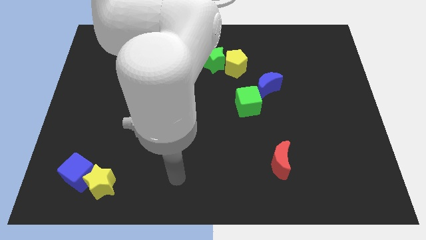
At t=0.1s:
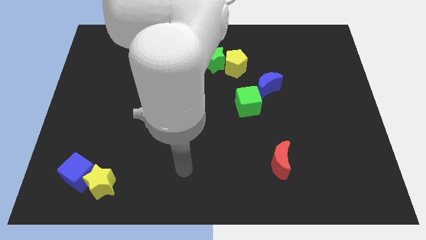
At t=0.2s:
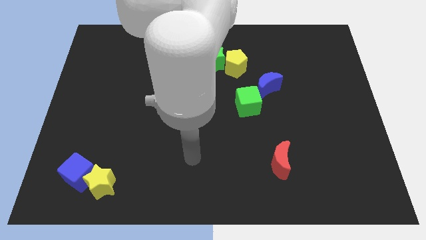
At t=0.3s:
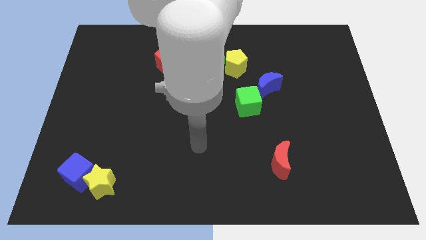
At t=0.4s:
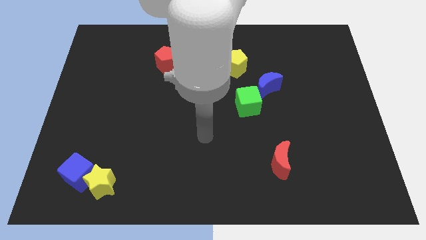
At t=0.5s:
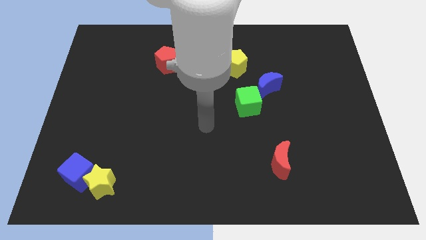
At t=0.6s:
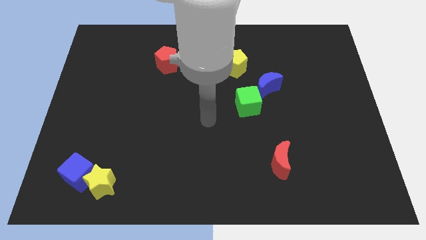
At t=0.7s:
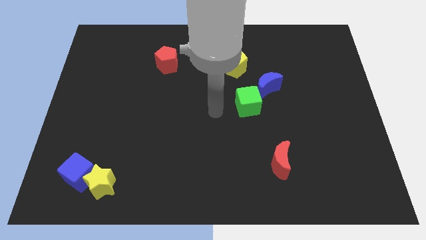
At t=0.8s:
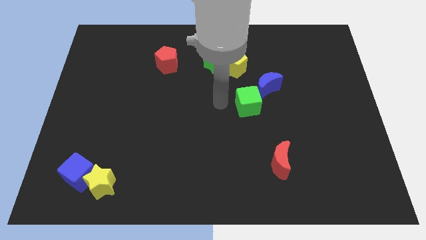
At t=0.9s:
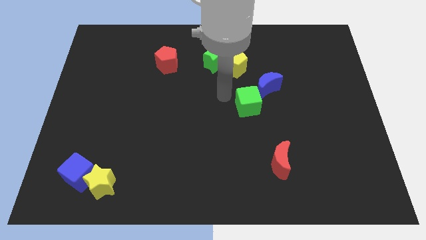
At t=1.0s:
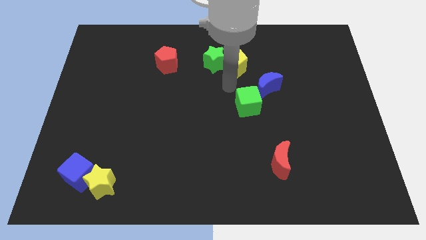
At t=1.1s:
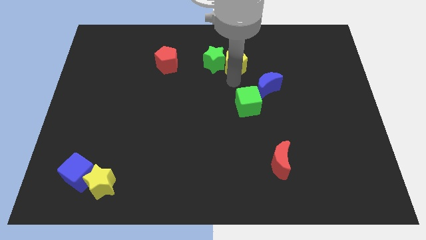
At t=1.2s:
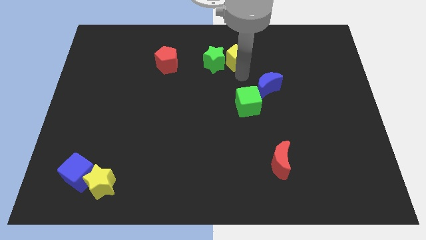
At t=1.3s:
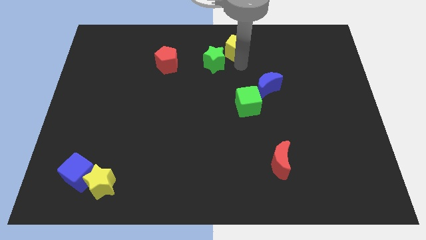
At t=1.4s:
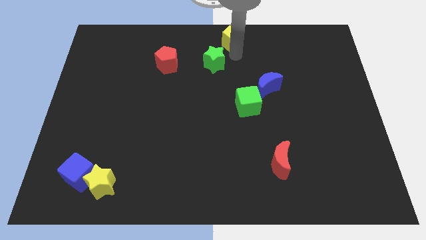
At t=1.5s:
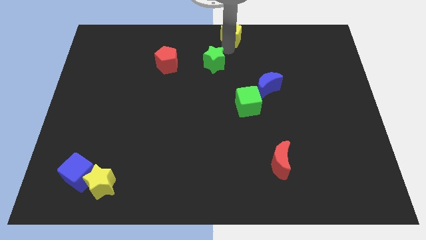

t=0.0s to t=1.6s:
separate the green star from the yellow pentagon

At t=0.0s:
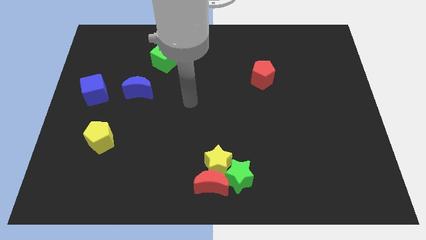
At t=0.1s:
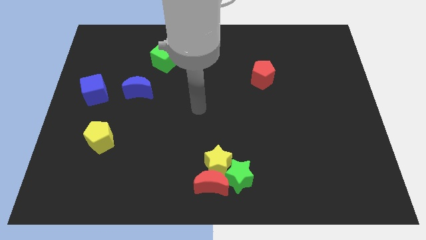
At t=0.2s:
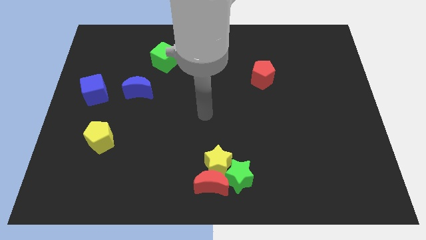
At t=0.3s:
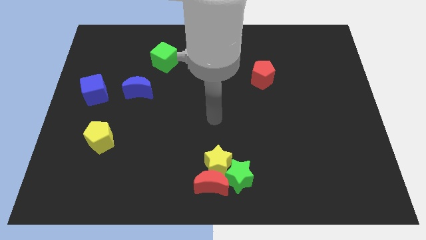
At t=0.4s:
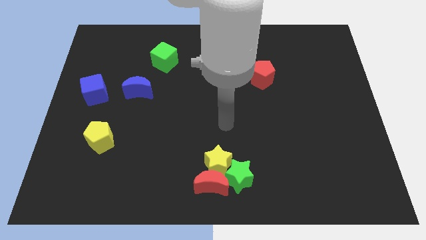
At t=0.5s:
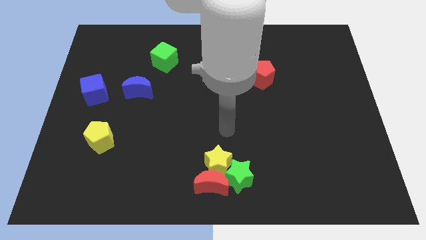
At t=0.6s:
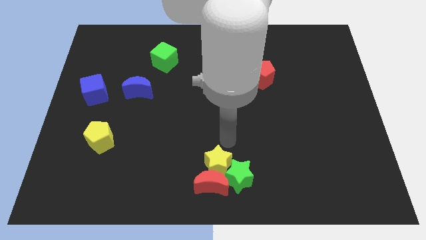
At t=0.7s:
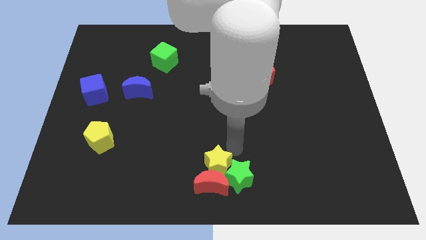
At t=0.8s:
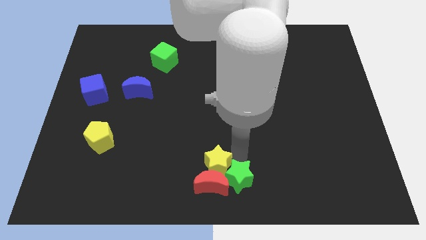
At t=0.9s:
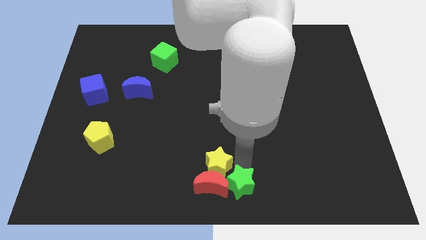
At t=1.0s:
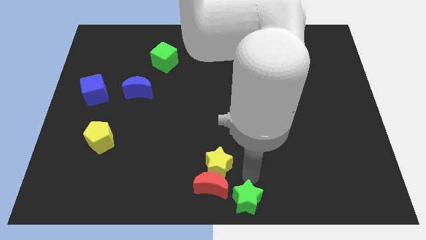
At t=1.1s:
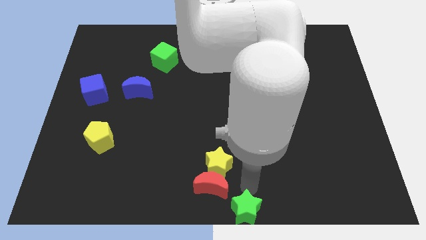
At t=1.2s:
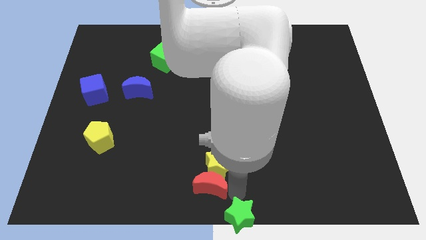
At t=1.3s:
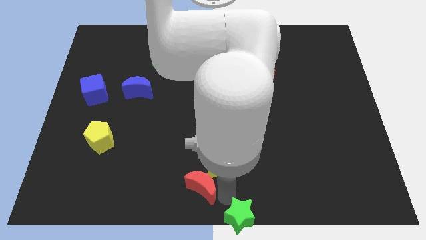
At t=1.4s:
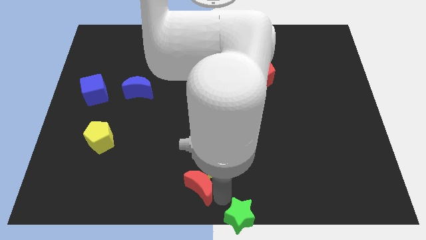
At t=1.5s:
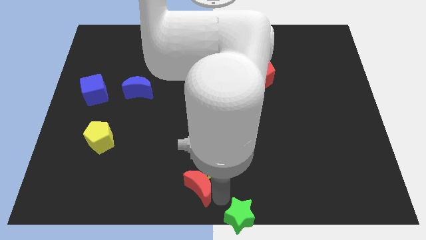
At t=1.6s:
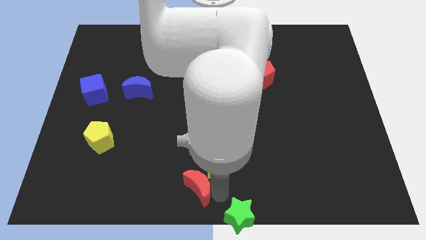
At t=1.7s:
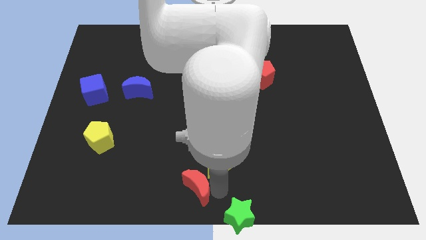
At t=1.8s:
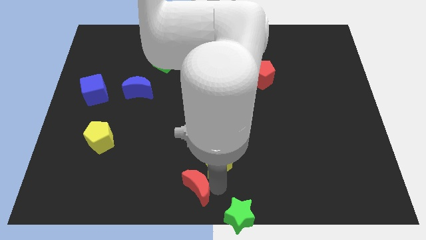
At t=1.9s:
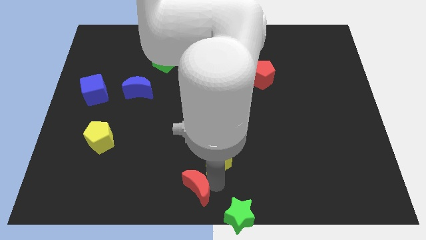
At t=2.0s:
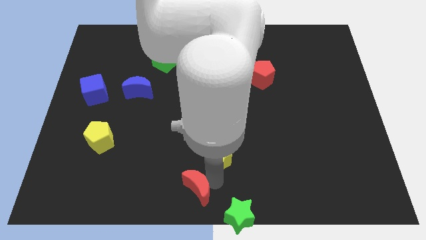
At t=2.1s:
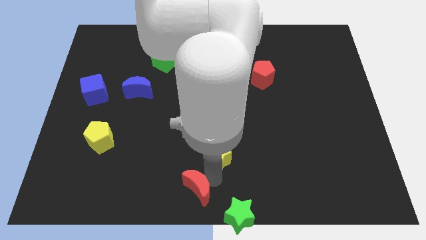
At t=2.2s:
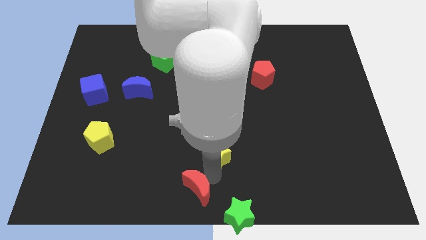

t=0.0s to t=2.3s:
move the yellow star away from the red moon and green star

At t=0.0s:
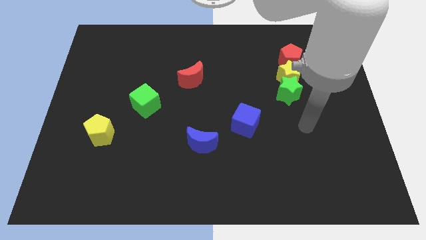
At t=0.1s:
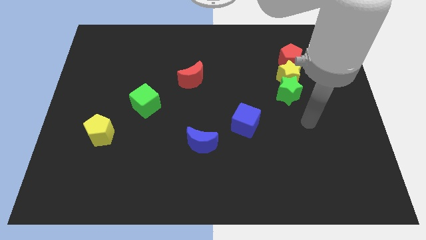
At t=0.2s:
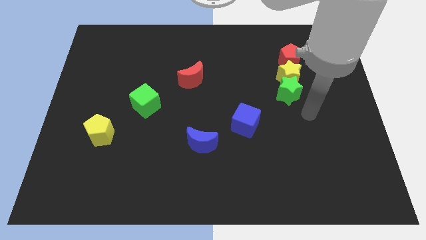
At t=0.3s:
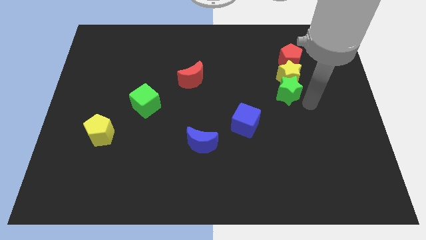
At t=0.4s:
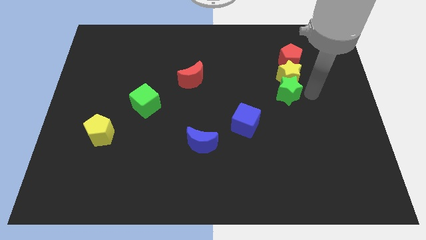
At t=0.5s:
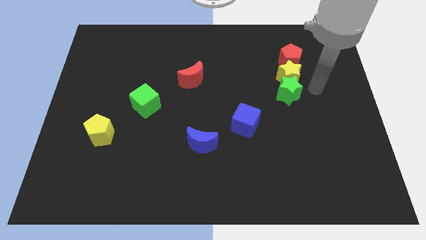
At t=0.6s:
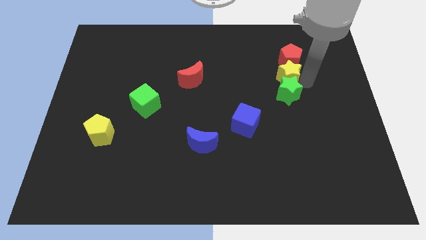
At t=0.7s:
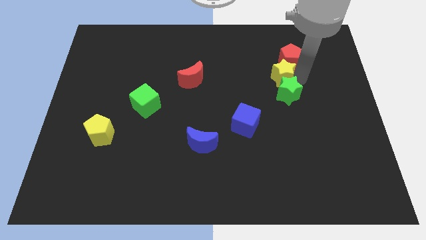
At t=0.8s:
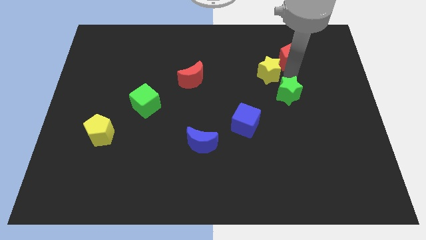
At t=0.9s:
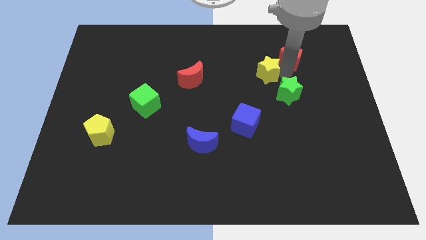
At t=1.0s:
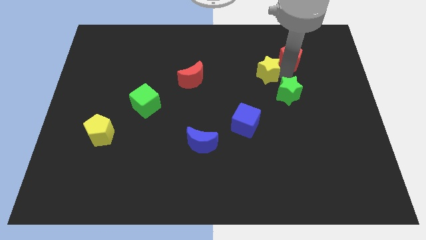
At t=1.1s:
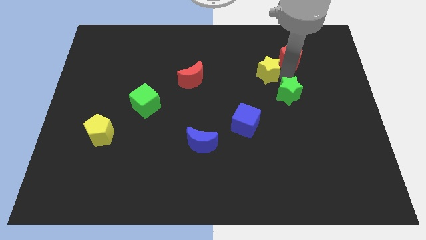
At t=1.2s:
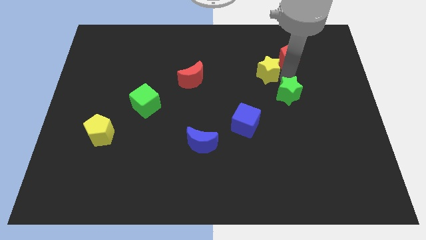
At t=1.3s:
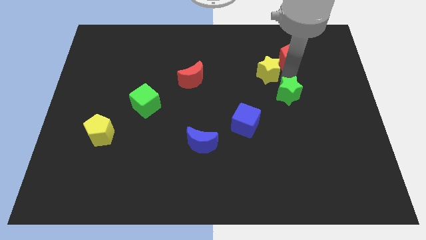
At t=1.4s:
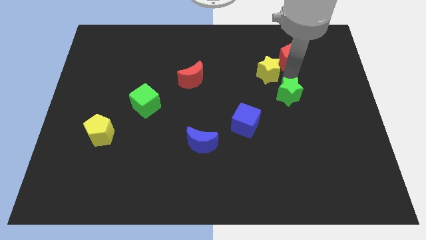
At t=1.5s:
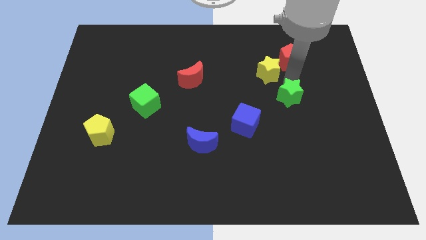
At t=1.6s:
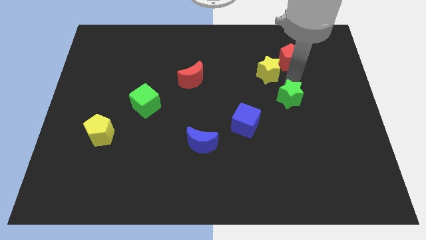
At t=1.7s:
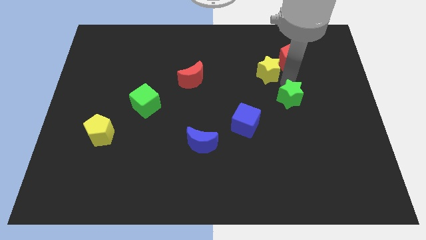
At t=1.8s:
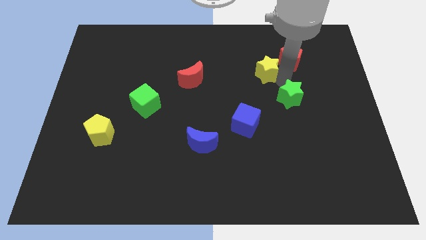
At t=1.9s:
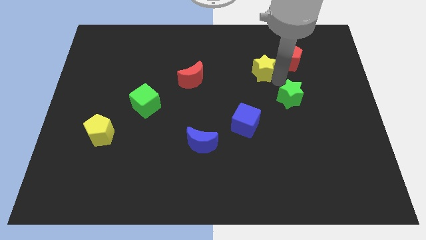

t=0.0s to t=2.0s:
move the green star away from the yellow star

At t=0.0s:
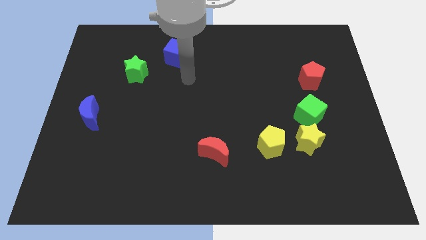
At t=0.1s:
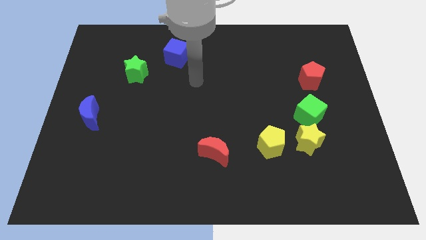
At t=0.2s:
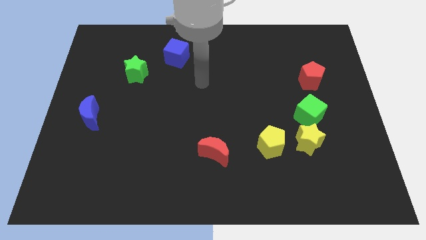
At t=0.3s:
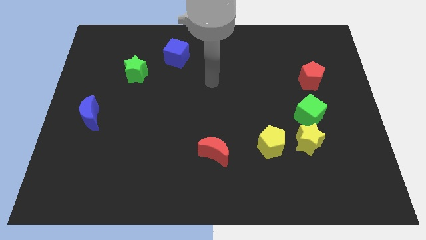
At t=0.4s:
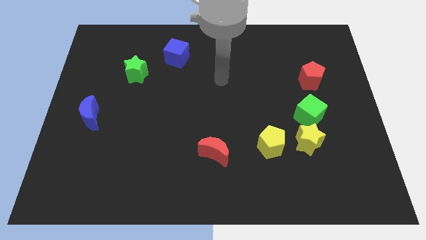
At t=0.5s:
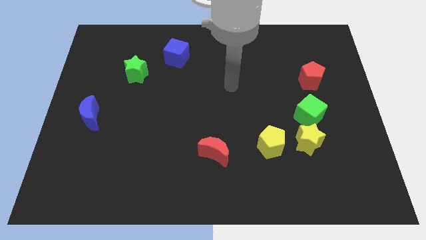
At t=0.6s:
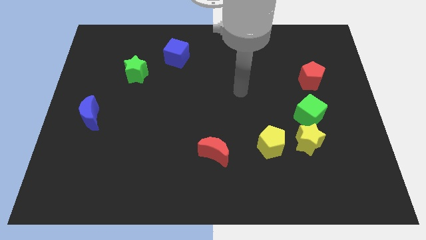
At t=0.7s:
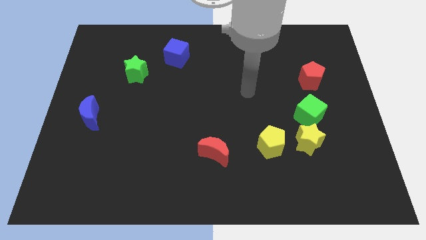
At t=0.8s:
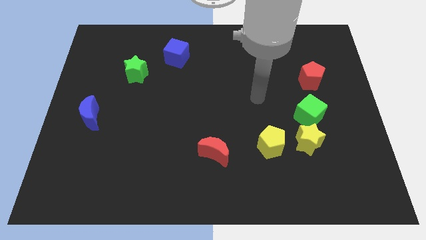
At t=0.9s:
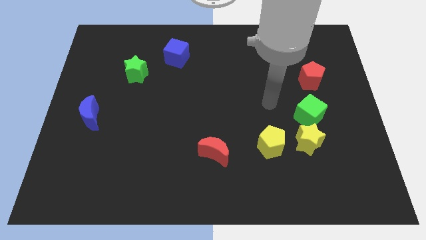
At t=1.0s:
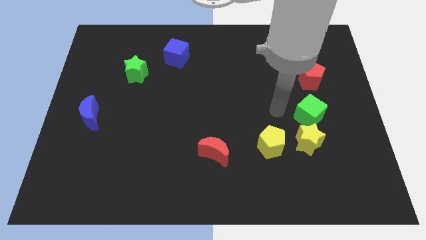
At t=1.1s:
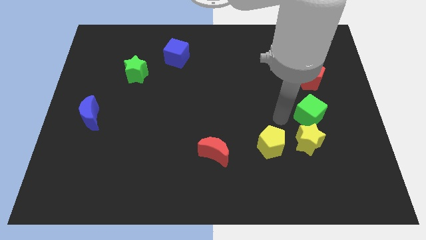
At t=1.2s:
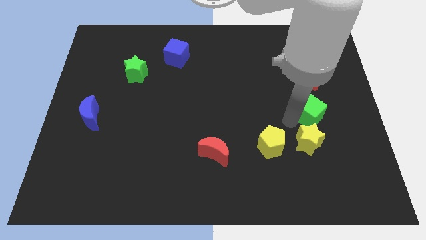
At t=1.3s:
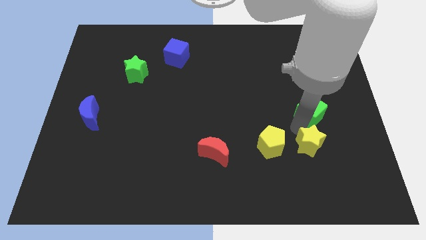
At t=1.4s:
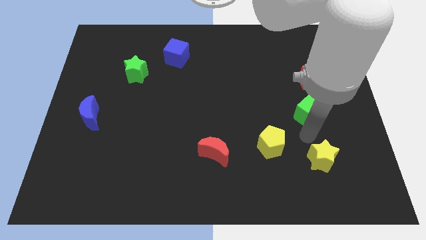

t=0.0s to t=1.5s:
separate the green cube from the yellow star

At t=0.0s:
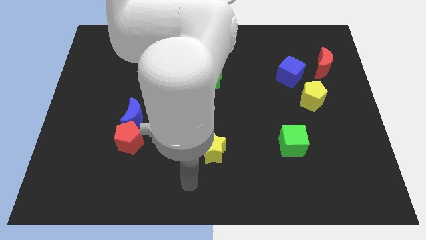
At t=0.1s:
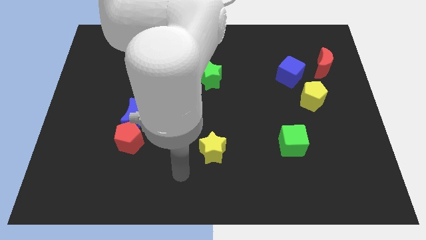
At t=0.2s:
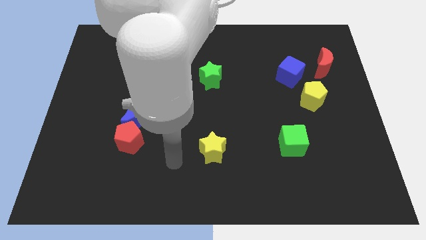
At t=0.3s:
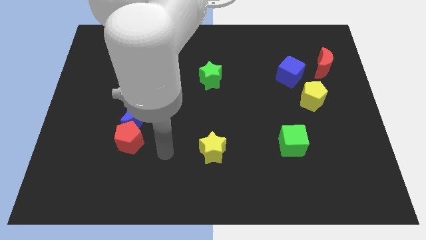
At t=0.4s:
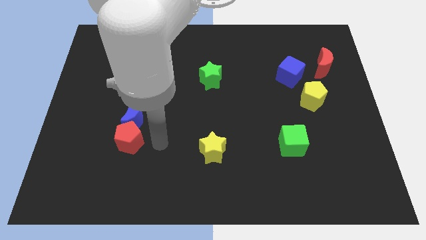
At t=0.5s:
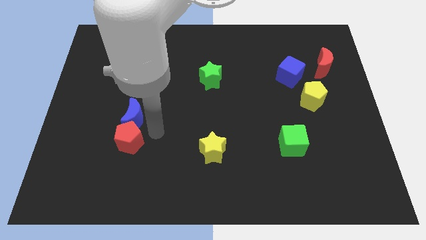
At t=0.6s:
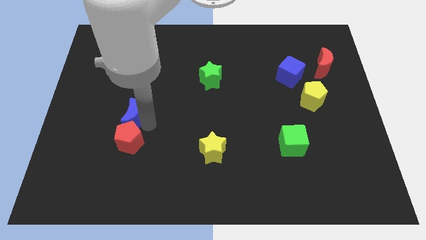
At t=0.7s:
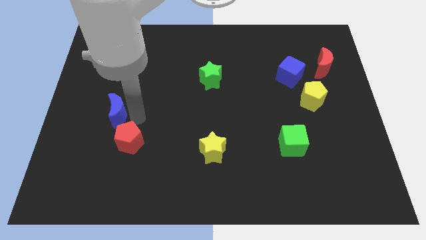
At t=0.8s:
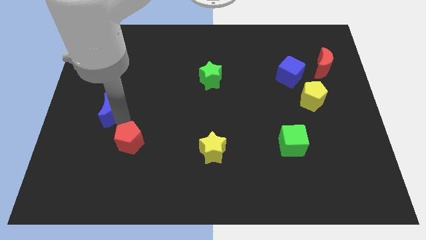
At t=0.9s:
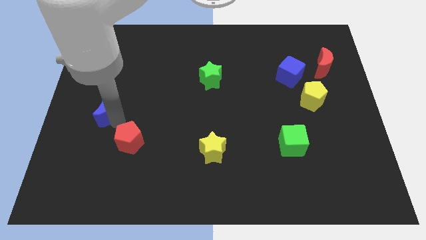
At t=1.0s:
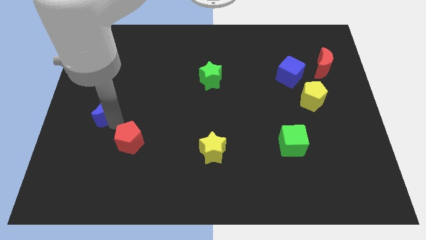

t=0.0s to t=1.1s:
separate the red pentagon from the blue moon

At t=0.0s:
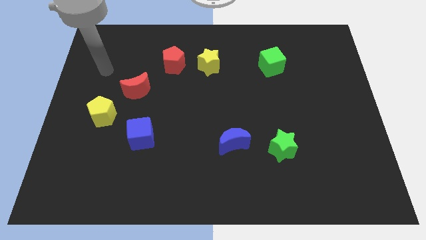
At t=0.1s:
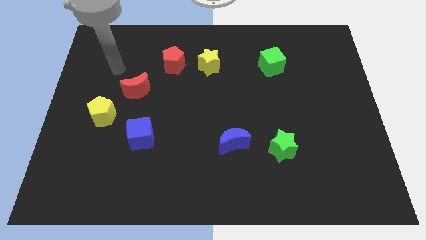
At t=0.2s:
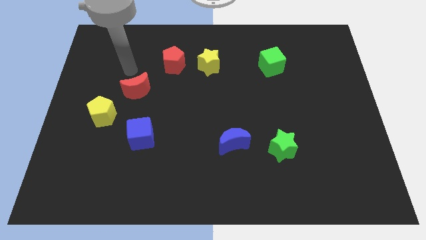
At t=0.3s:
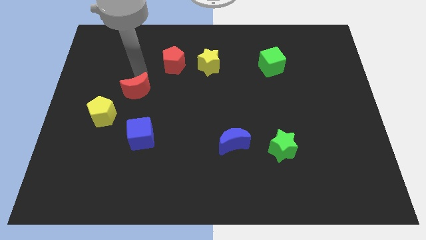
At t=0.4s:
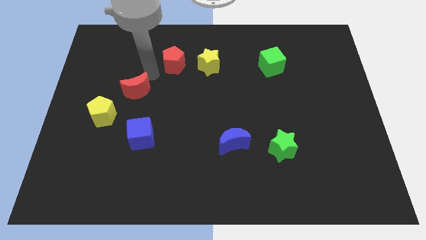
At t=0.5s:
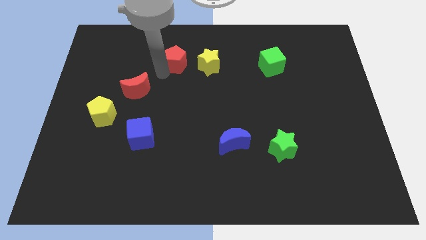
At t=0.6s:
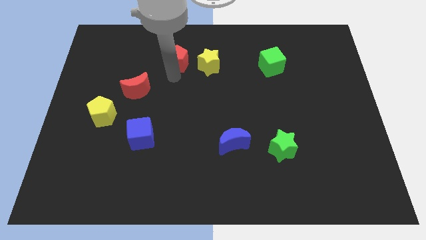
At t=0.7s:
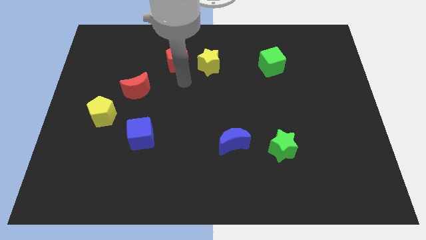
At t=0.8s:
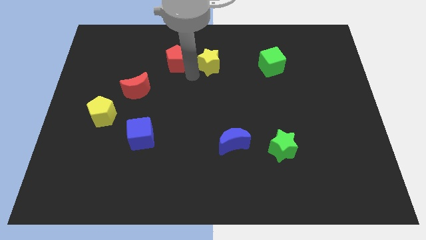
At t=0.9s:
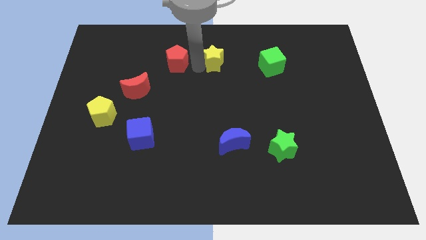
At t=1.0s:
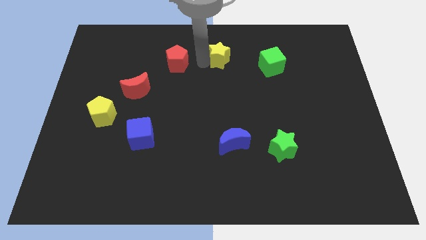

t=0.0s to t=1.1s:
separate the red pentagon from the yellow star
